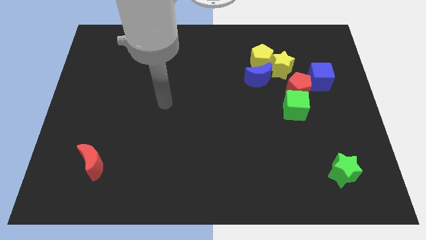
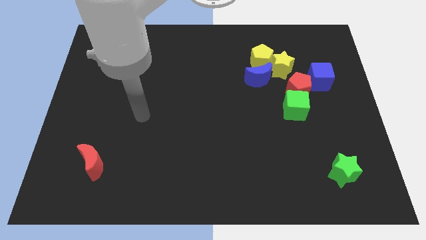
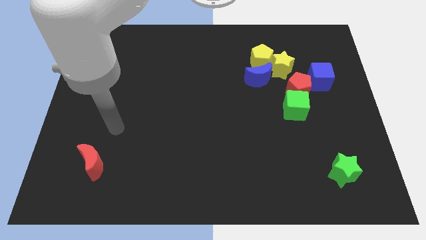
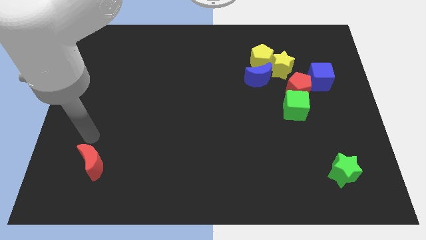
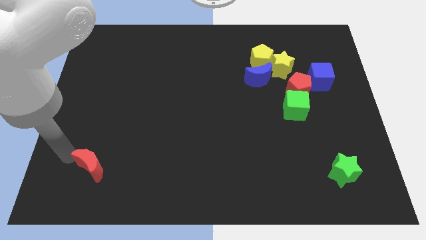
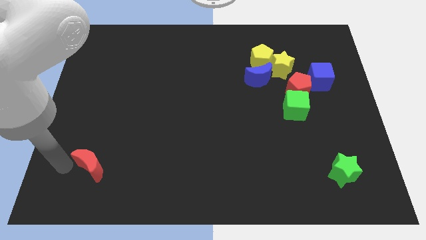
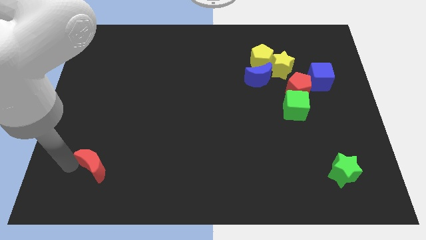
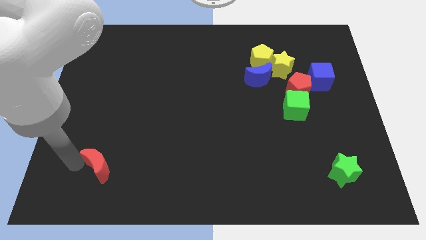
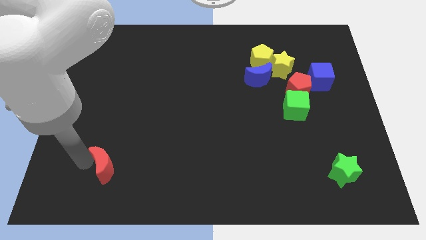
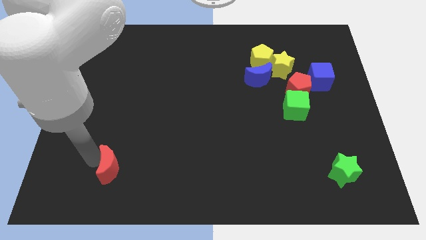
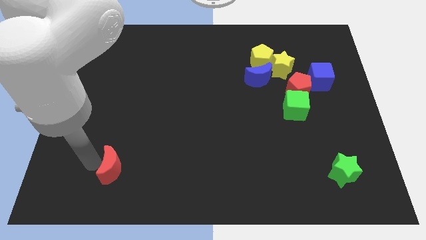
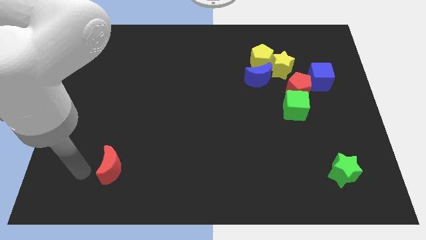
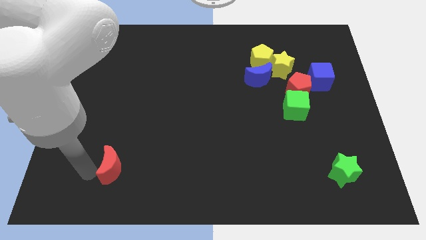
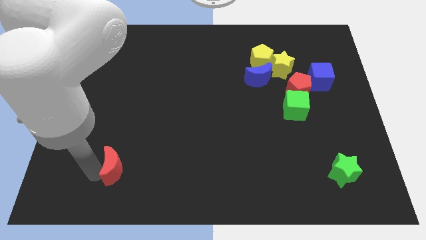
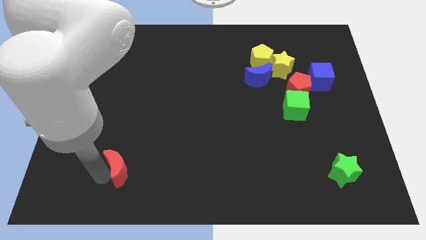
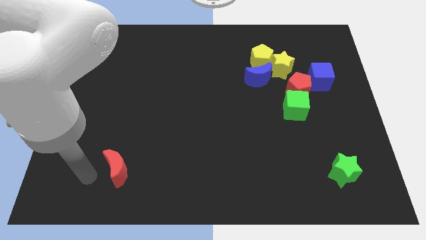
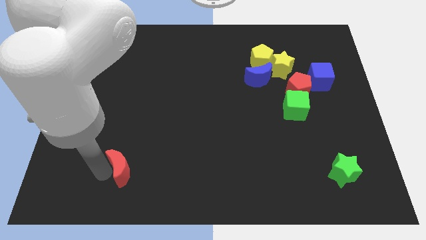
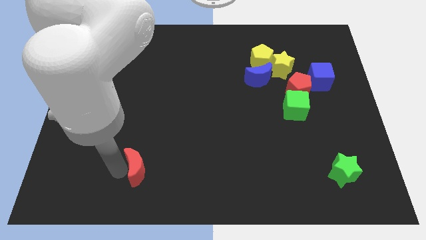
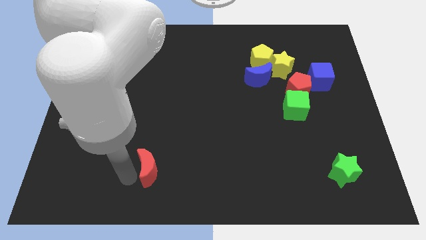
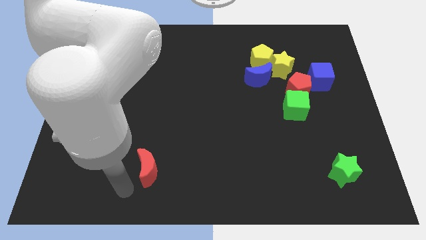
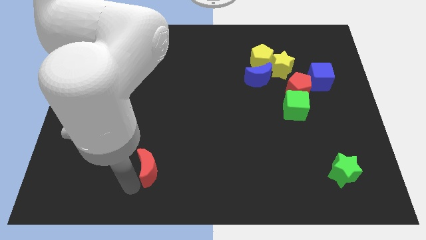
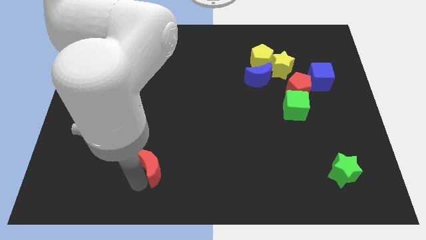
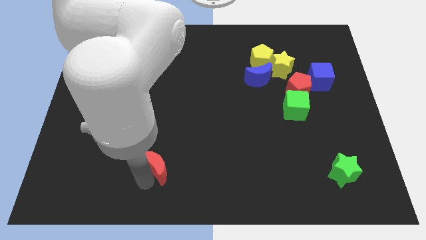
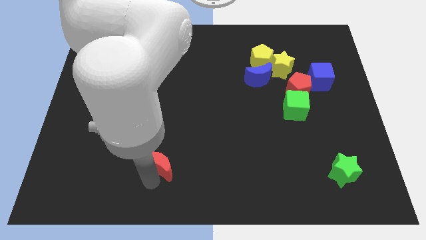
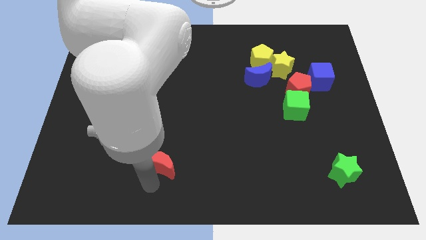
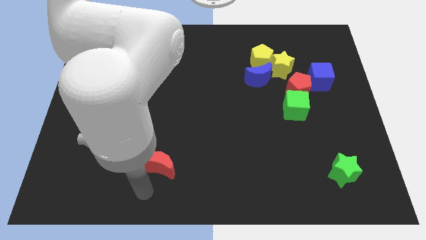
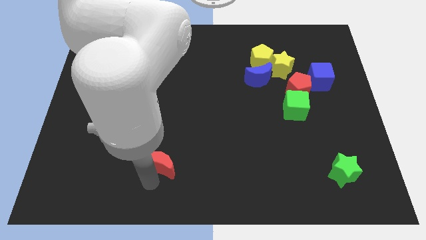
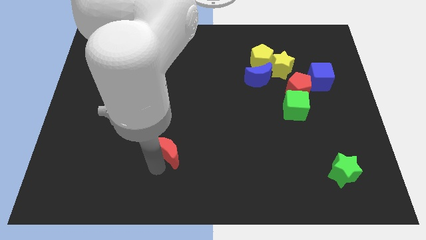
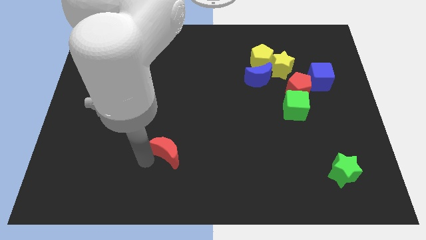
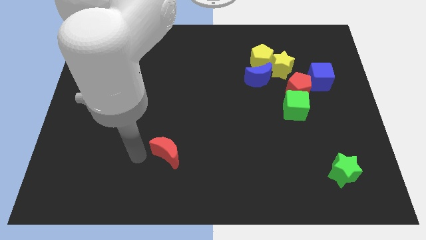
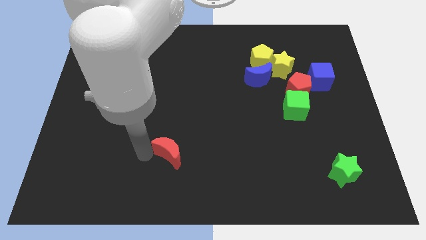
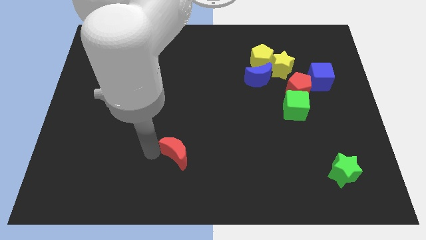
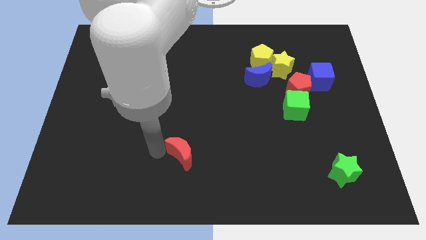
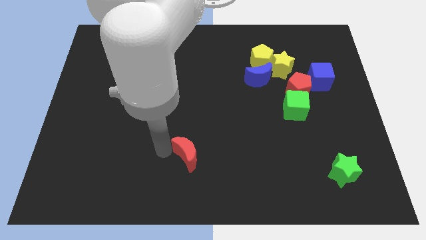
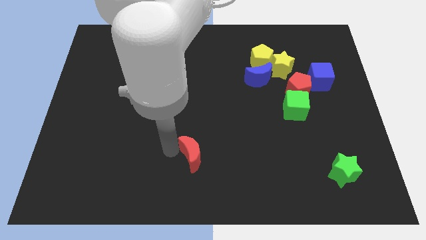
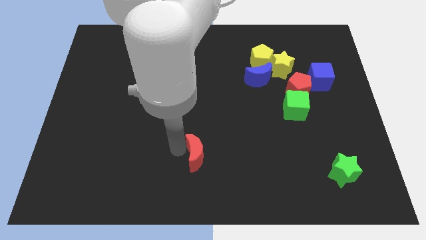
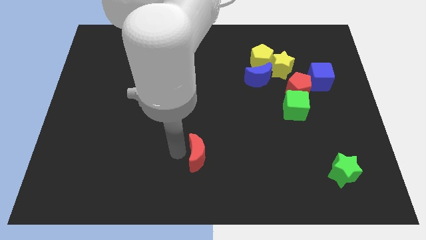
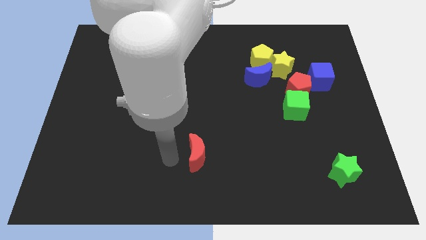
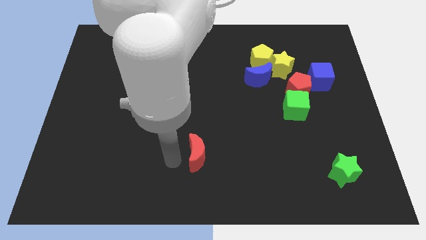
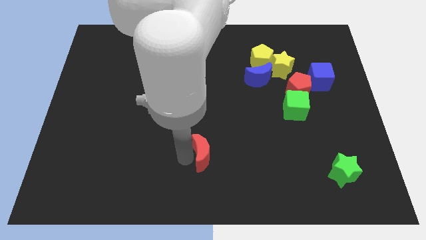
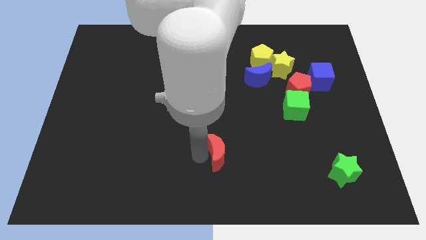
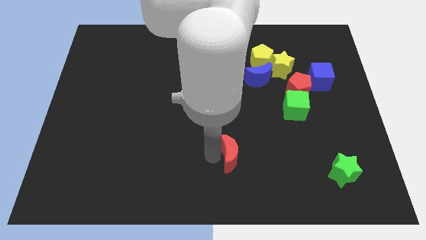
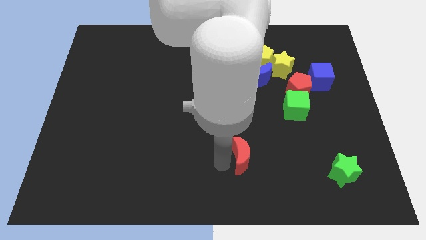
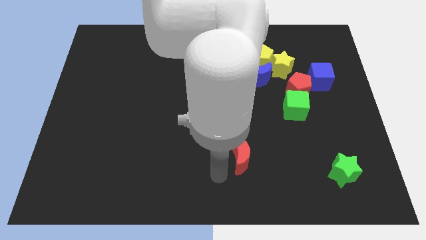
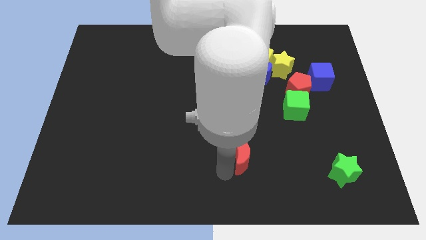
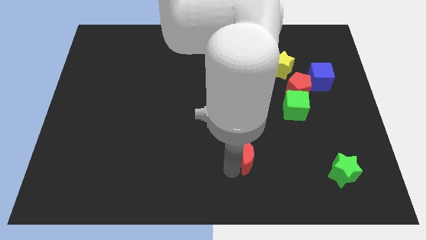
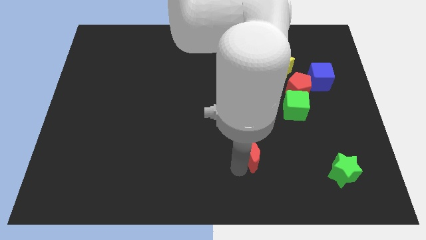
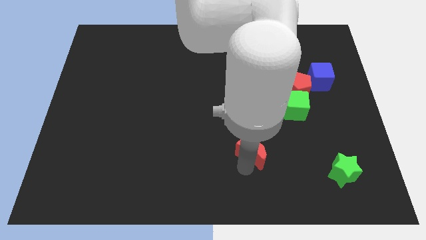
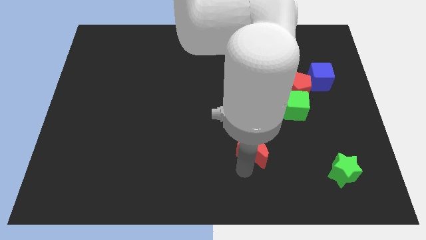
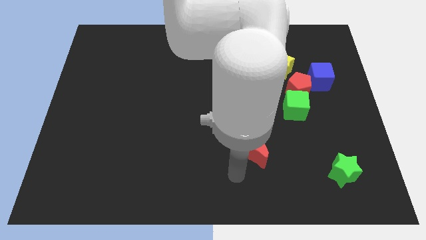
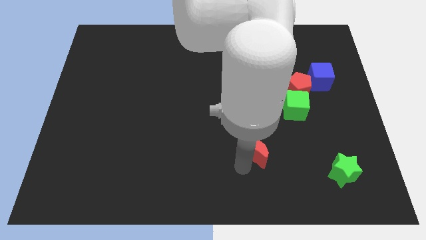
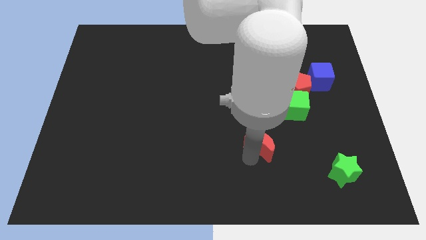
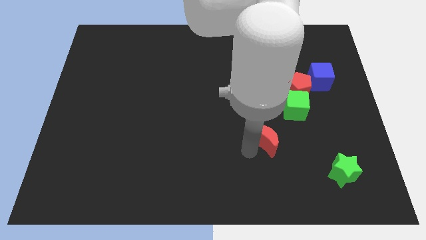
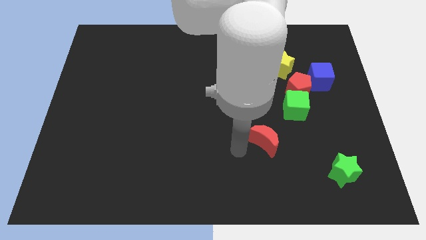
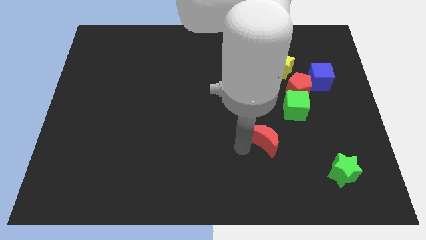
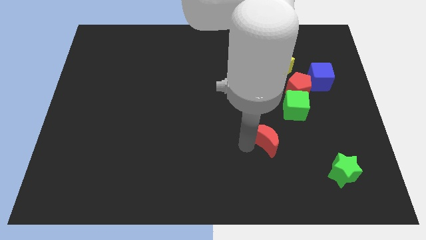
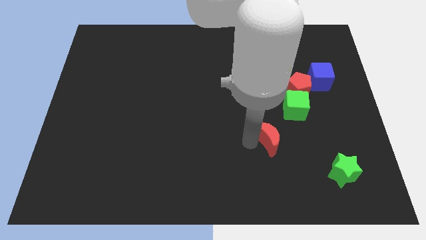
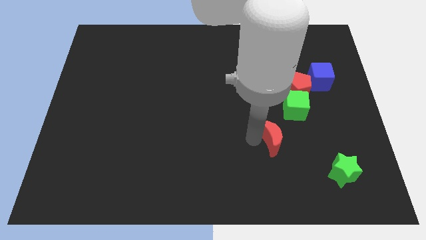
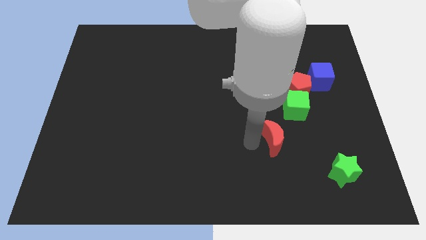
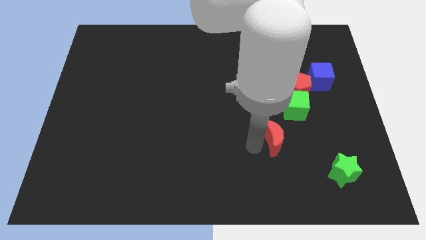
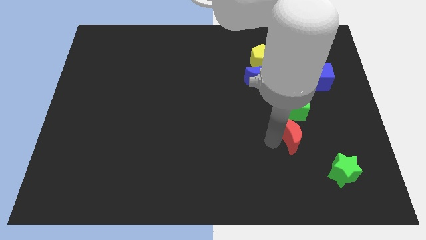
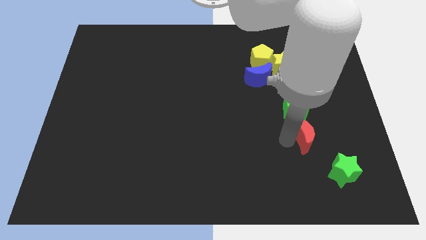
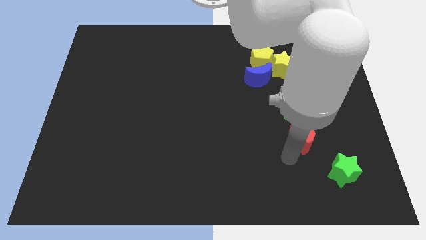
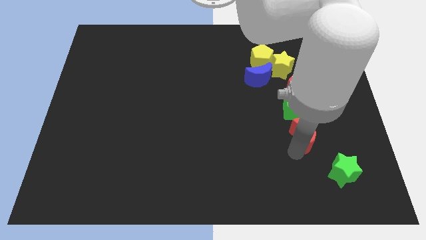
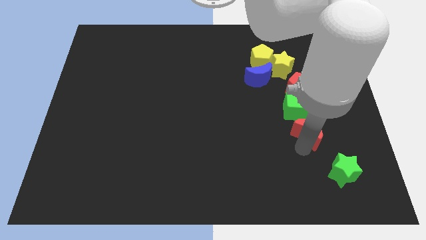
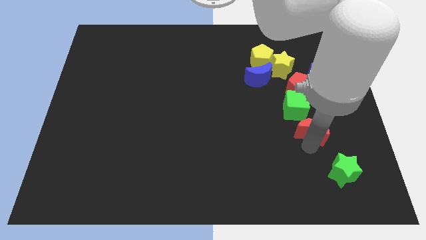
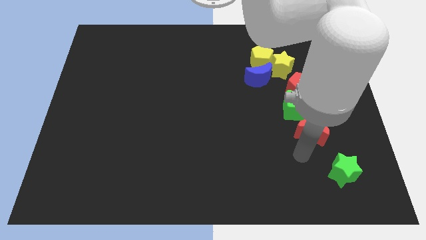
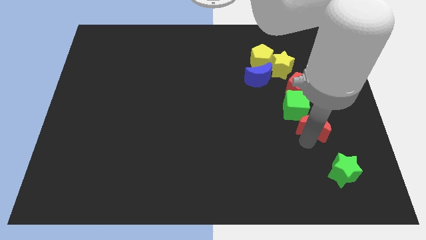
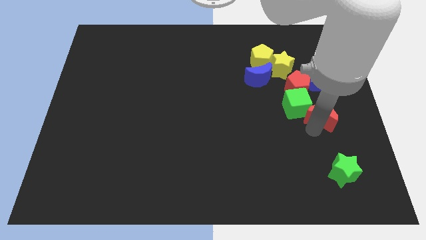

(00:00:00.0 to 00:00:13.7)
move the red moon to the bottom right side of the red pentagon

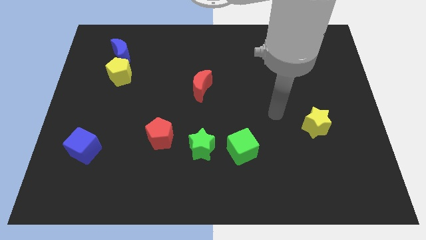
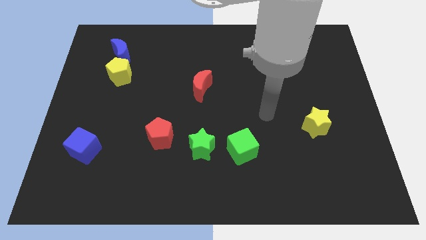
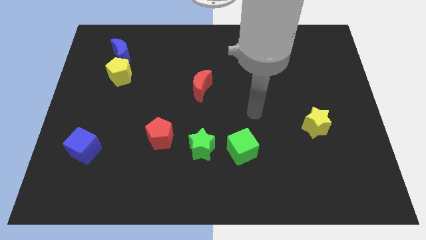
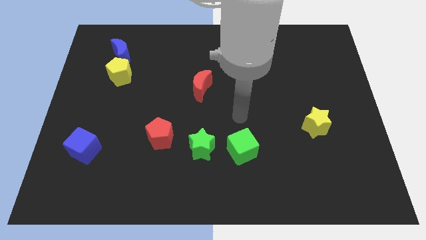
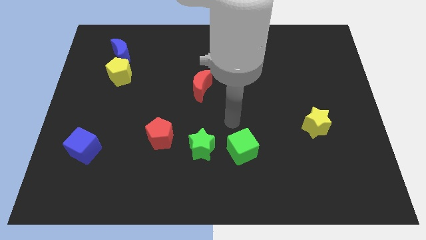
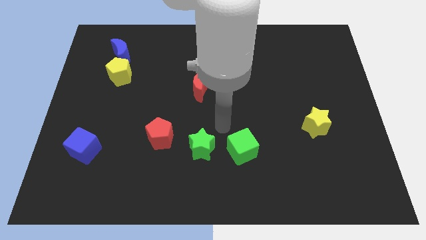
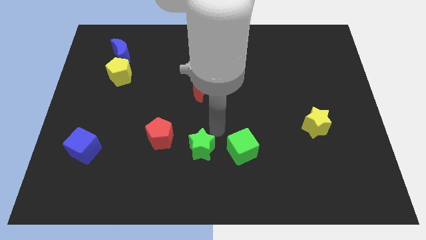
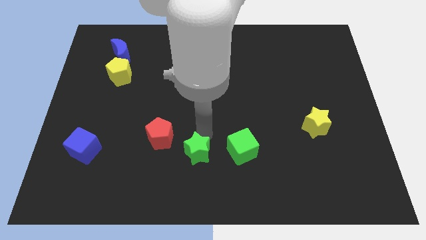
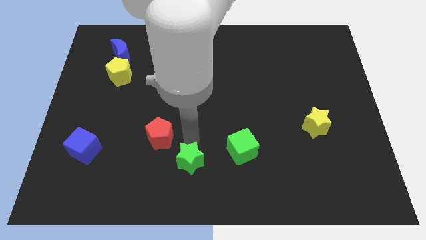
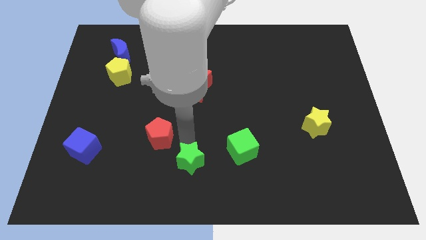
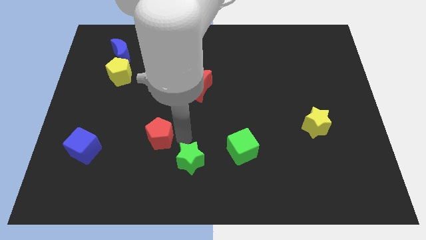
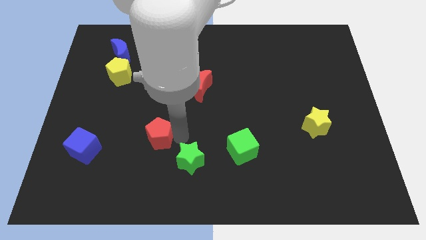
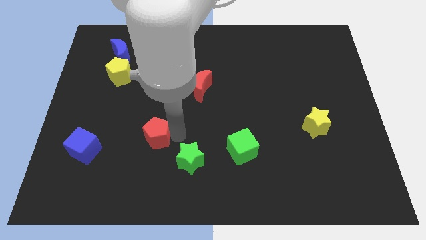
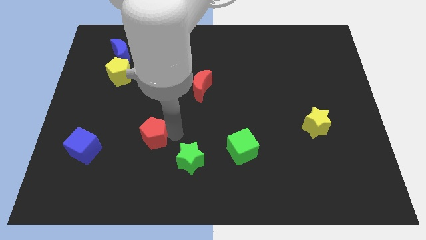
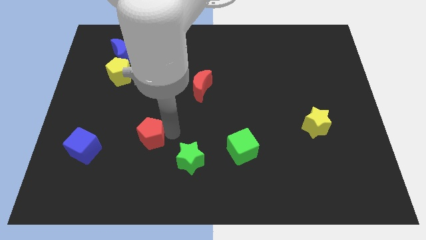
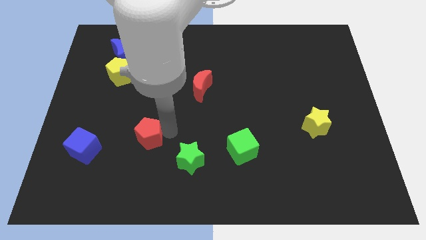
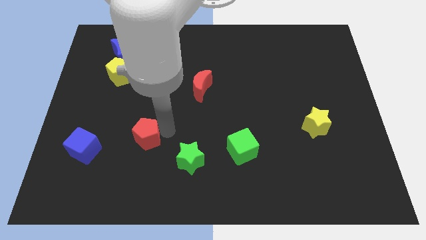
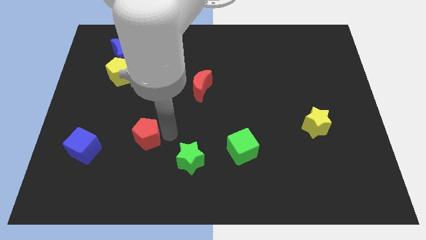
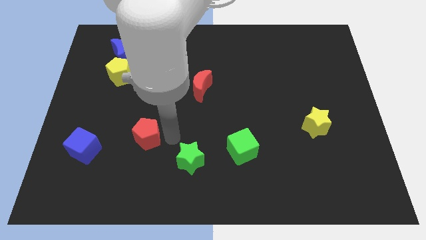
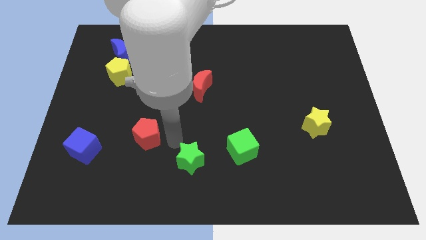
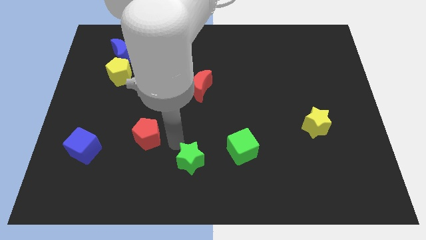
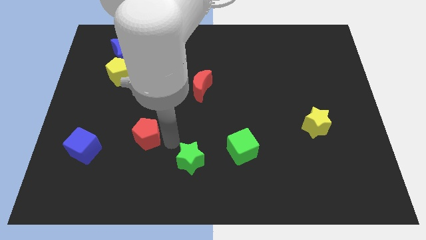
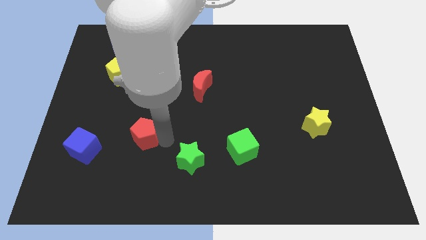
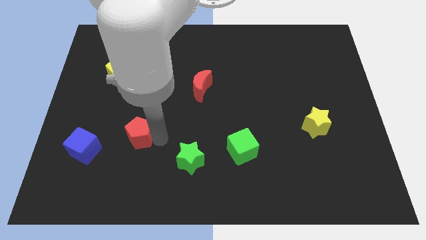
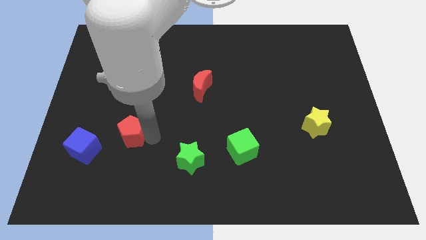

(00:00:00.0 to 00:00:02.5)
move the red pentagon to the top right of the blue cube
